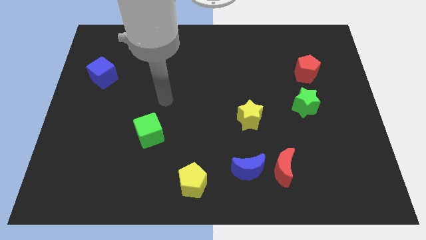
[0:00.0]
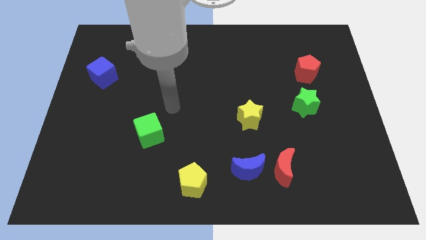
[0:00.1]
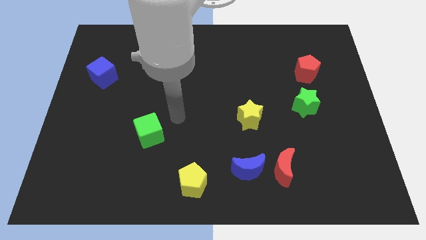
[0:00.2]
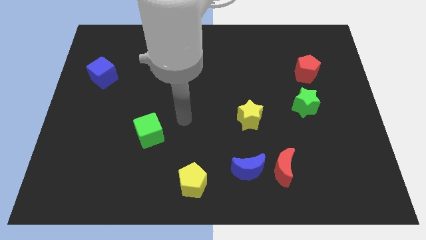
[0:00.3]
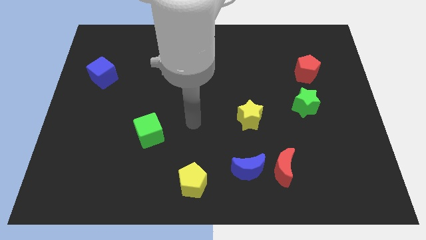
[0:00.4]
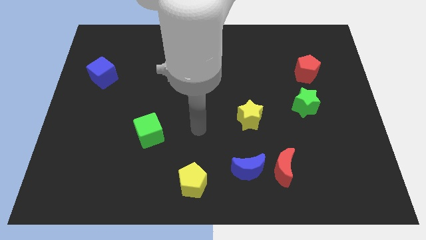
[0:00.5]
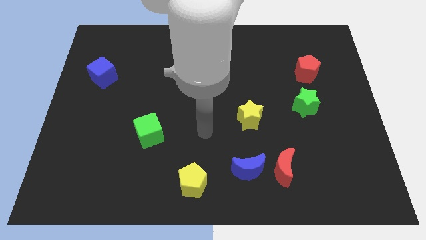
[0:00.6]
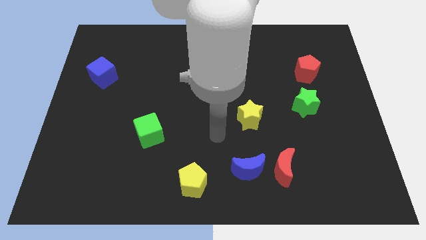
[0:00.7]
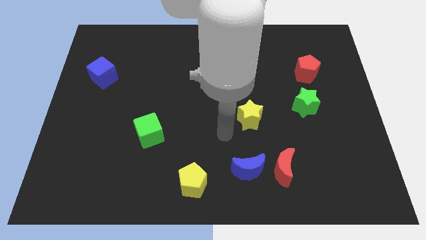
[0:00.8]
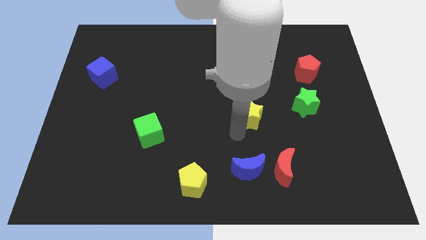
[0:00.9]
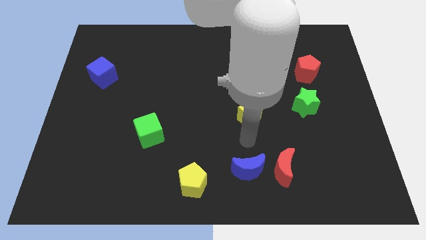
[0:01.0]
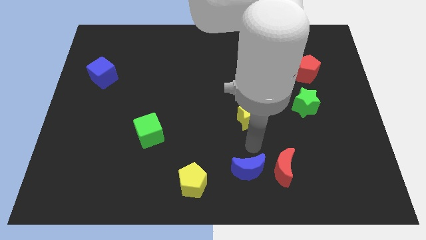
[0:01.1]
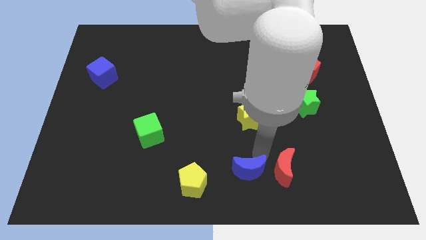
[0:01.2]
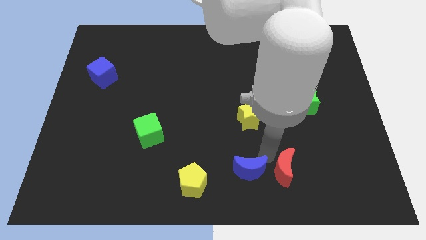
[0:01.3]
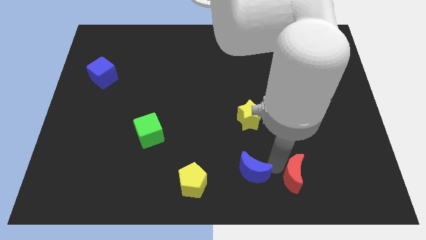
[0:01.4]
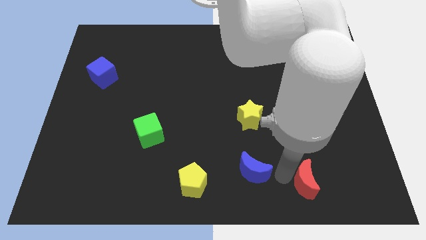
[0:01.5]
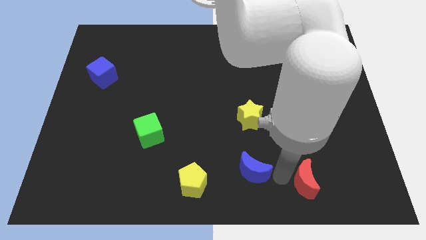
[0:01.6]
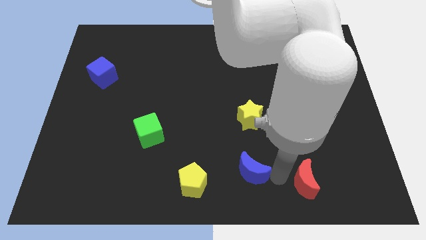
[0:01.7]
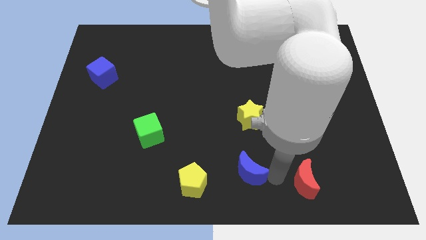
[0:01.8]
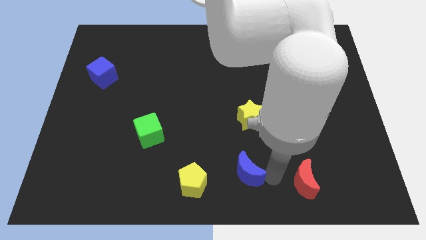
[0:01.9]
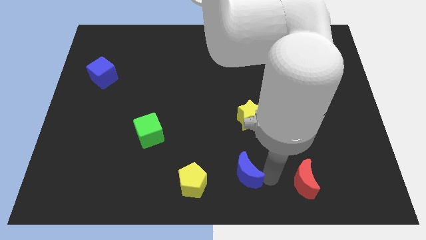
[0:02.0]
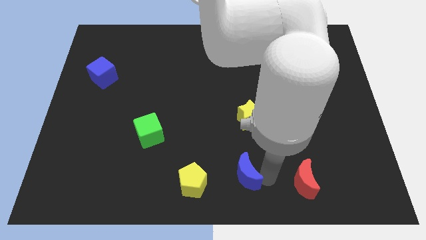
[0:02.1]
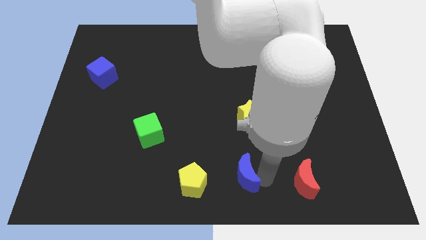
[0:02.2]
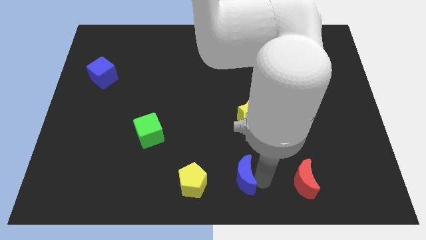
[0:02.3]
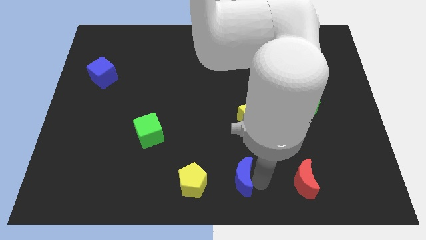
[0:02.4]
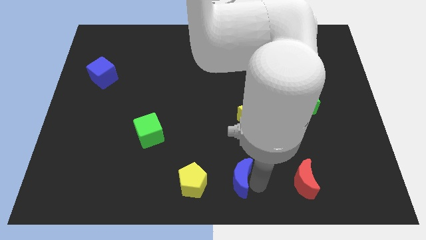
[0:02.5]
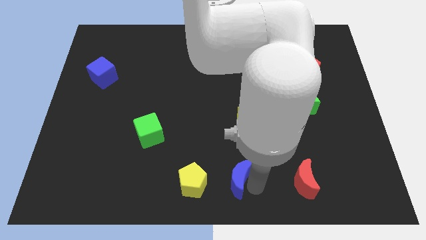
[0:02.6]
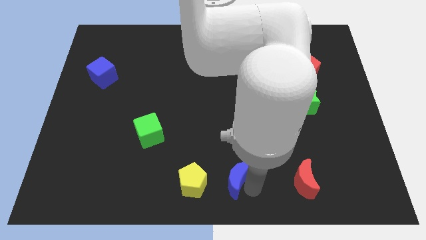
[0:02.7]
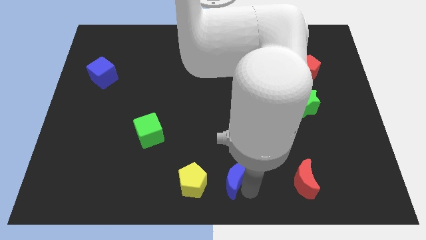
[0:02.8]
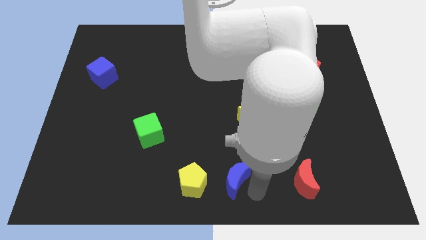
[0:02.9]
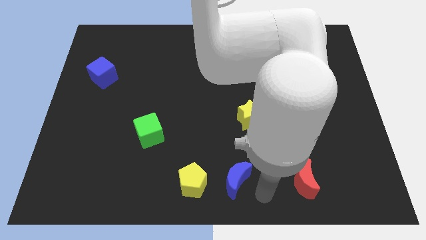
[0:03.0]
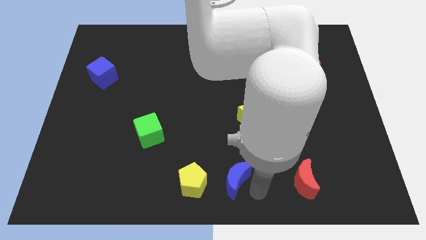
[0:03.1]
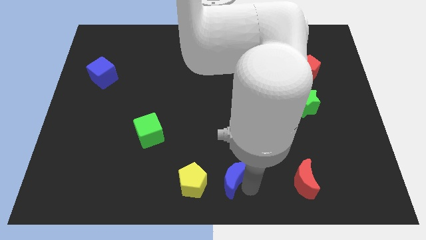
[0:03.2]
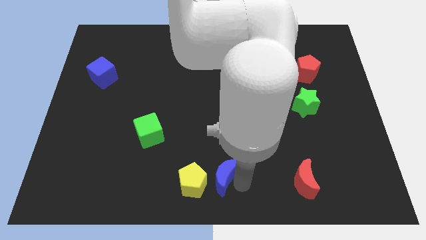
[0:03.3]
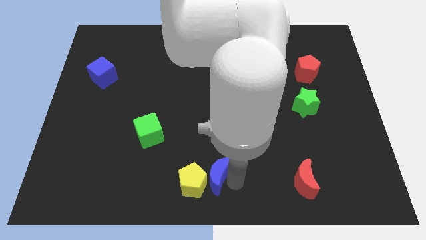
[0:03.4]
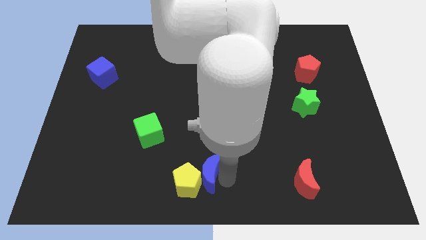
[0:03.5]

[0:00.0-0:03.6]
push the blue moon to the left slightly

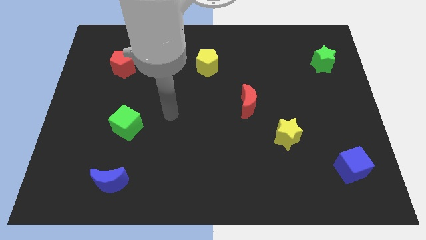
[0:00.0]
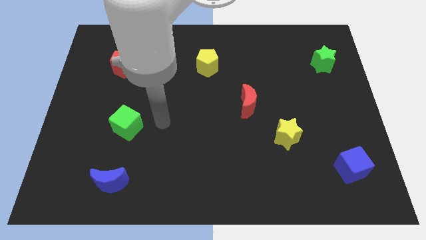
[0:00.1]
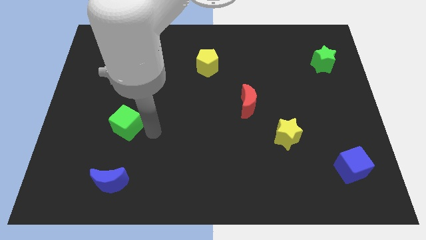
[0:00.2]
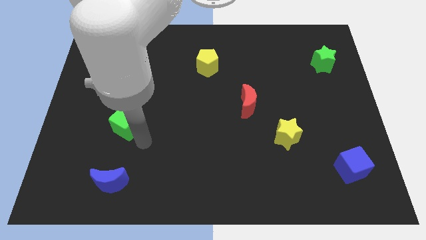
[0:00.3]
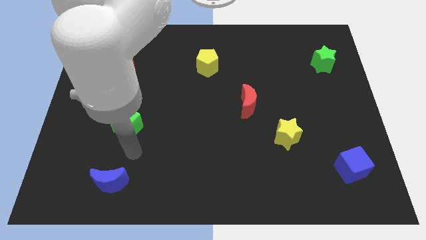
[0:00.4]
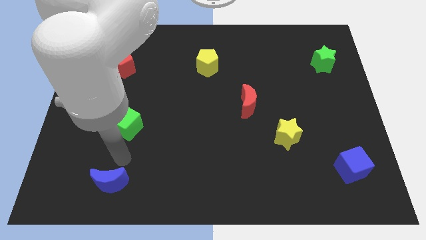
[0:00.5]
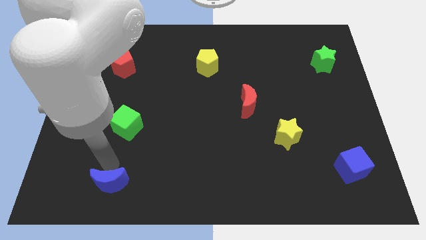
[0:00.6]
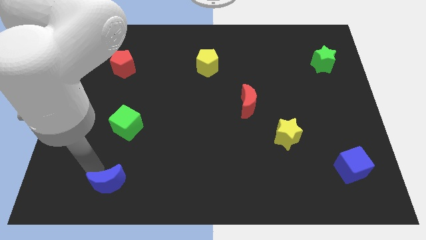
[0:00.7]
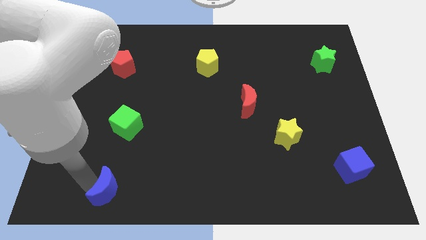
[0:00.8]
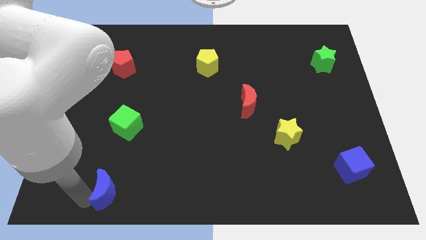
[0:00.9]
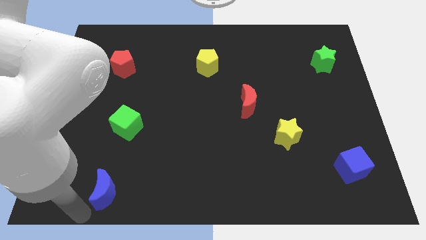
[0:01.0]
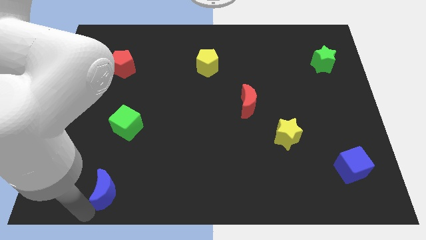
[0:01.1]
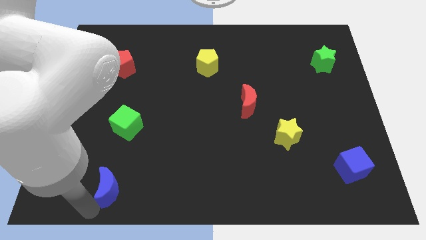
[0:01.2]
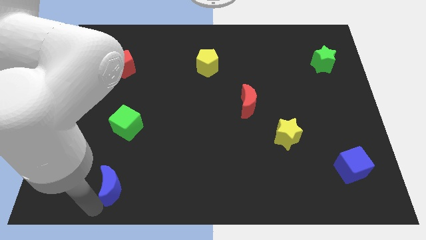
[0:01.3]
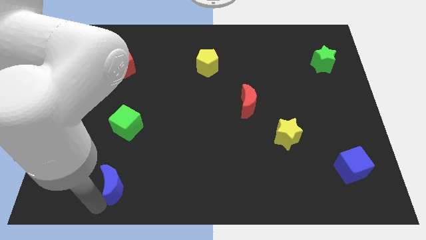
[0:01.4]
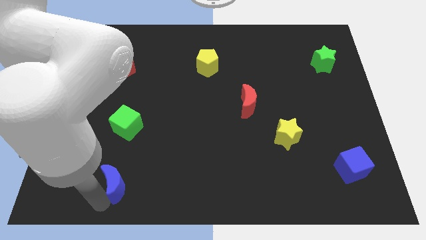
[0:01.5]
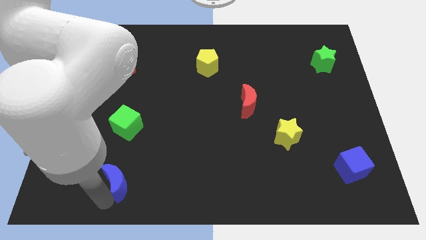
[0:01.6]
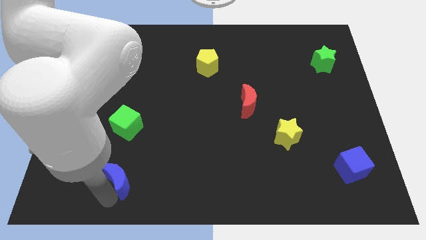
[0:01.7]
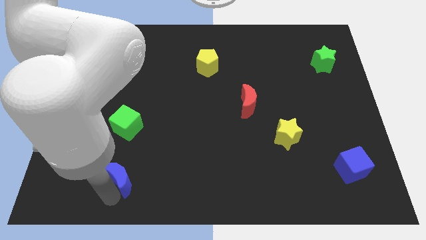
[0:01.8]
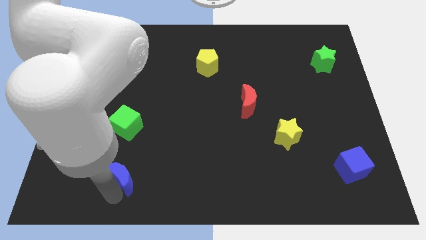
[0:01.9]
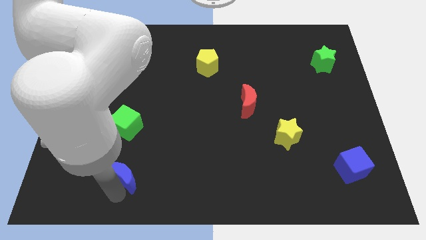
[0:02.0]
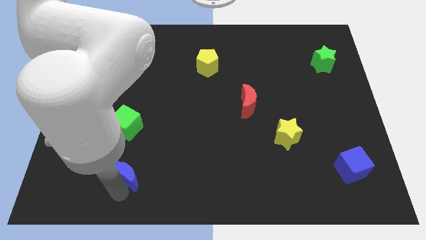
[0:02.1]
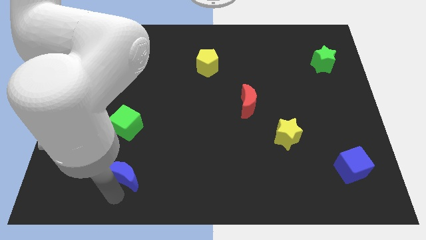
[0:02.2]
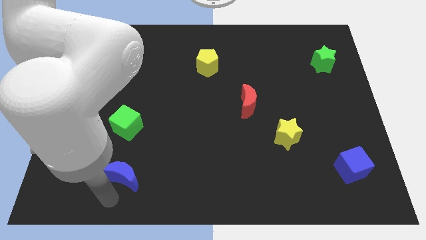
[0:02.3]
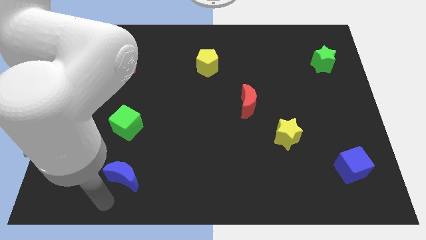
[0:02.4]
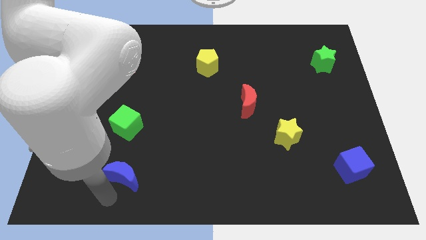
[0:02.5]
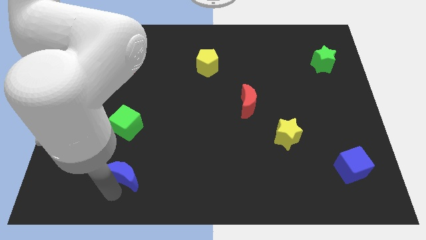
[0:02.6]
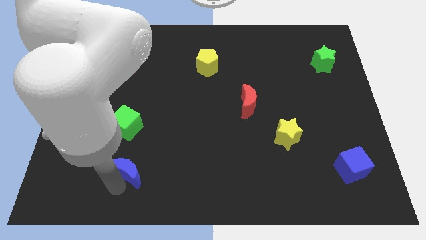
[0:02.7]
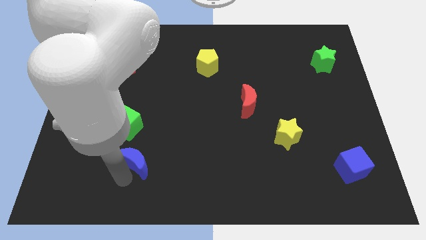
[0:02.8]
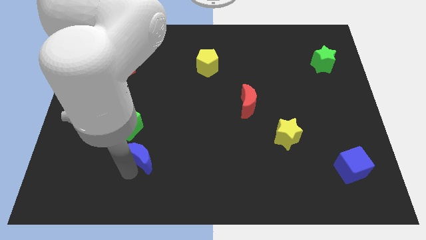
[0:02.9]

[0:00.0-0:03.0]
slightly push the blue moon diagonally up and to the right

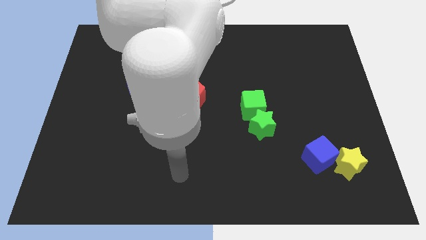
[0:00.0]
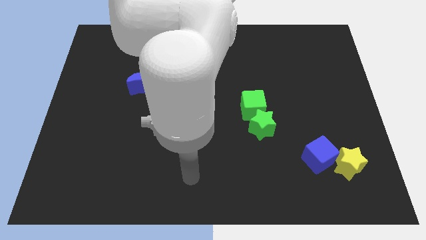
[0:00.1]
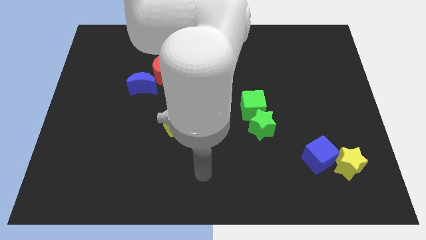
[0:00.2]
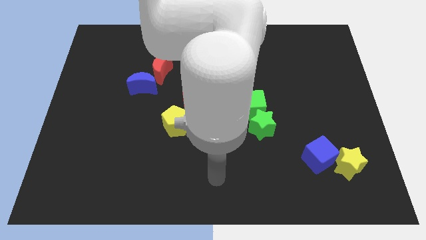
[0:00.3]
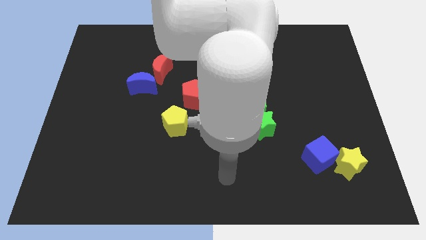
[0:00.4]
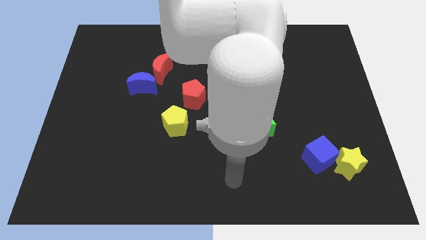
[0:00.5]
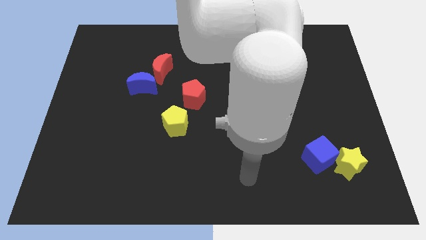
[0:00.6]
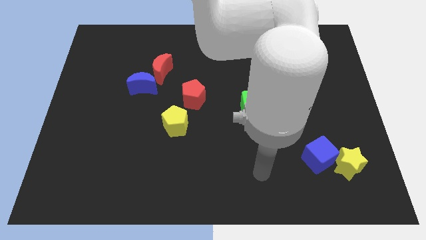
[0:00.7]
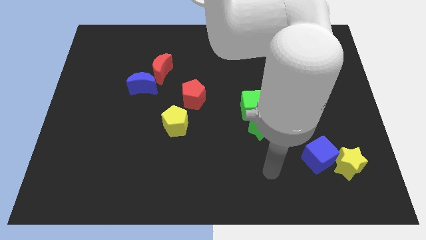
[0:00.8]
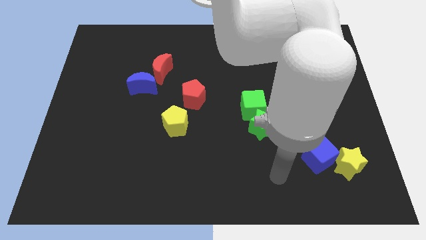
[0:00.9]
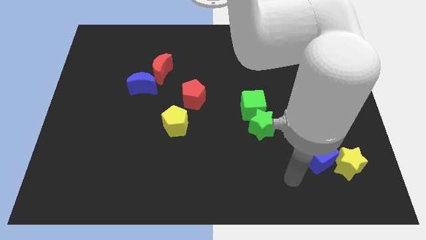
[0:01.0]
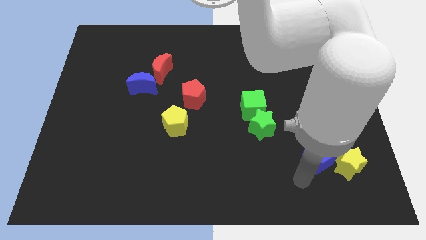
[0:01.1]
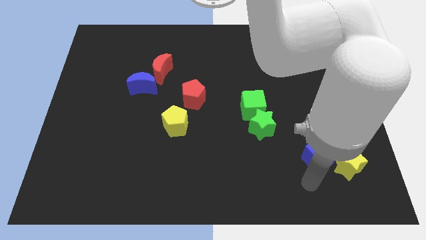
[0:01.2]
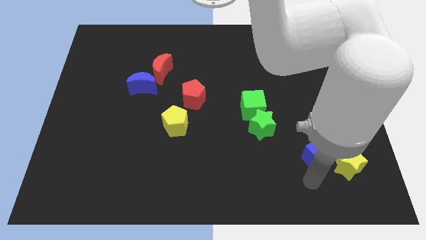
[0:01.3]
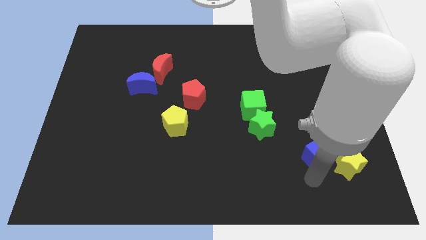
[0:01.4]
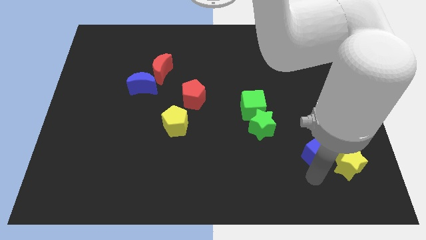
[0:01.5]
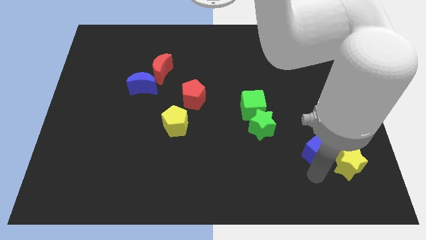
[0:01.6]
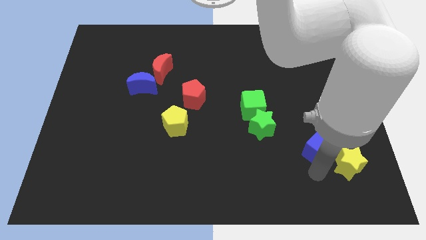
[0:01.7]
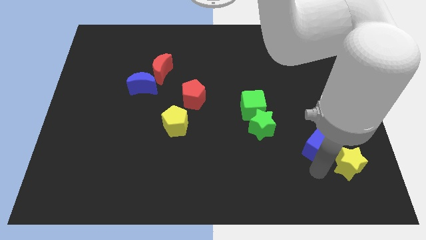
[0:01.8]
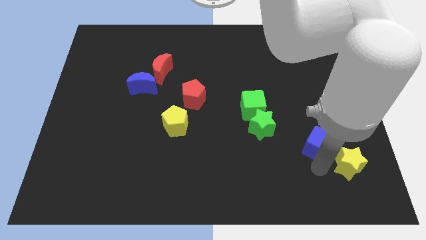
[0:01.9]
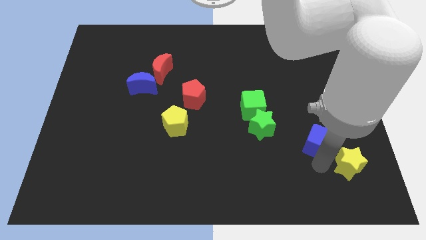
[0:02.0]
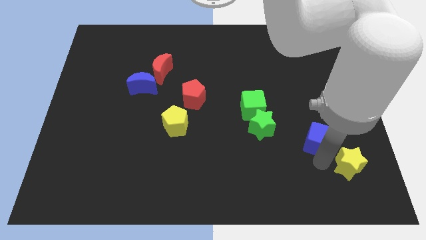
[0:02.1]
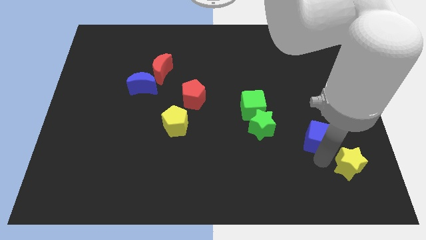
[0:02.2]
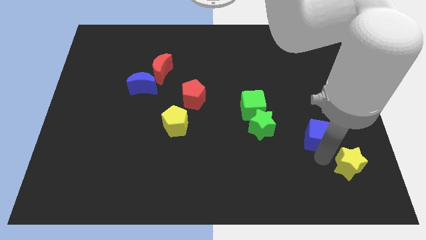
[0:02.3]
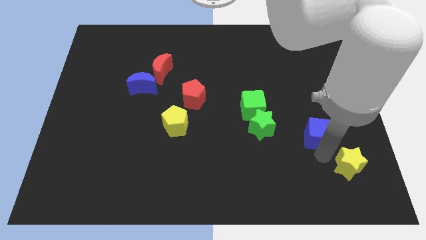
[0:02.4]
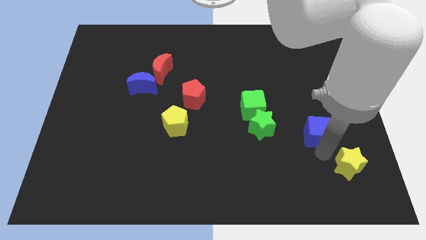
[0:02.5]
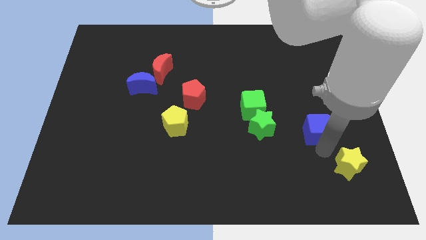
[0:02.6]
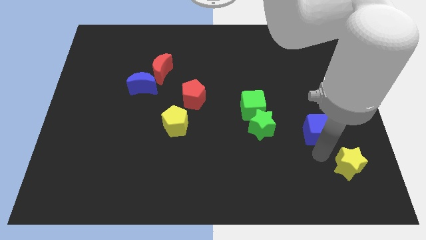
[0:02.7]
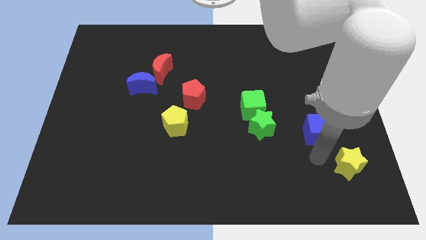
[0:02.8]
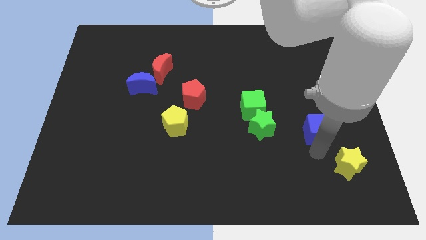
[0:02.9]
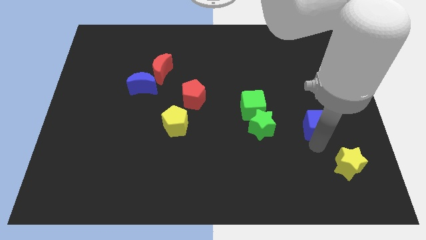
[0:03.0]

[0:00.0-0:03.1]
slightly move the blue cube up
